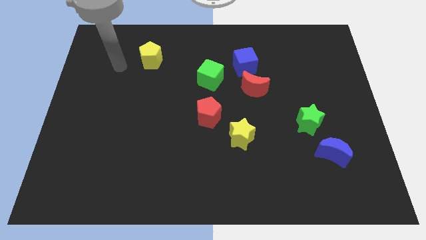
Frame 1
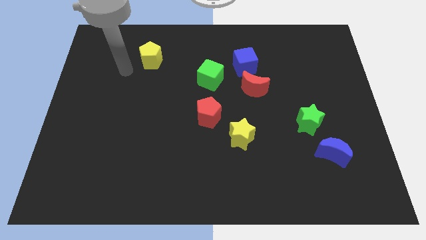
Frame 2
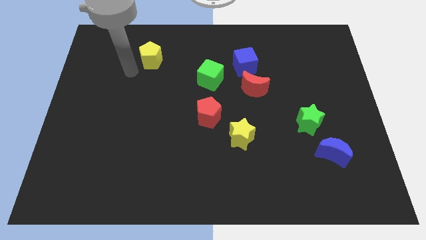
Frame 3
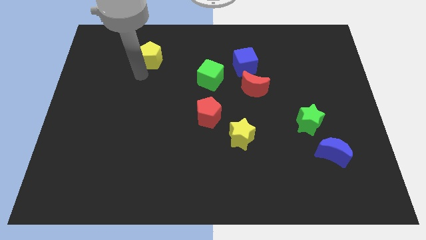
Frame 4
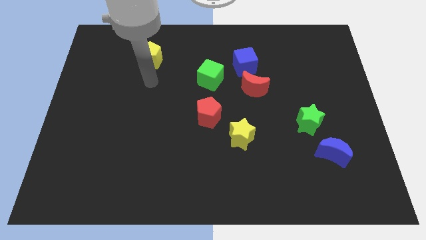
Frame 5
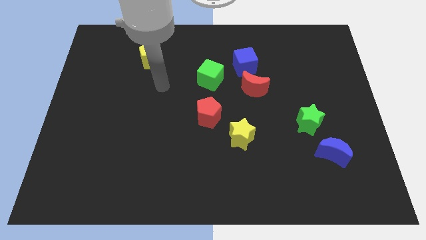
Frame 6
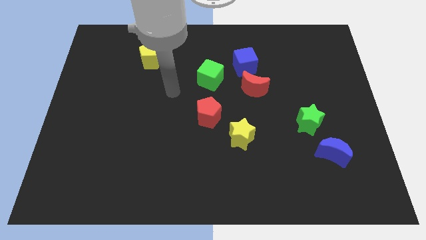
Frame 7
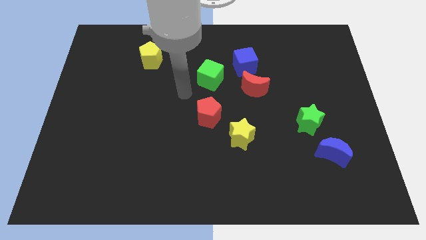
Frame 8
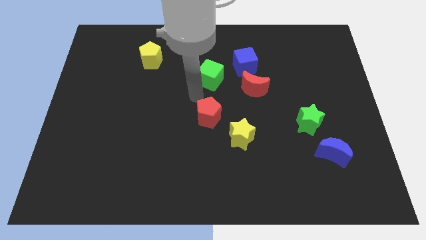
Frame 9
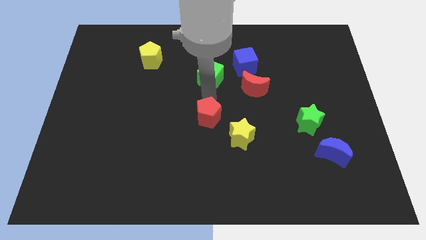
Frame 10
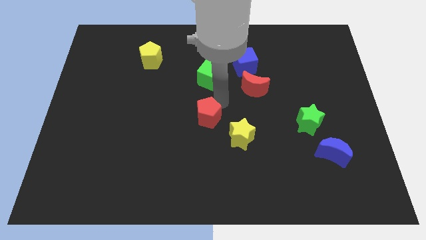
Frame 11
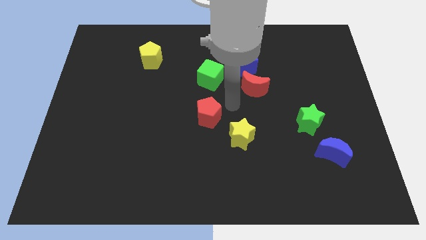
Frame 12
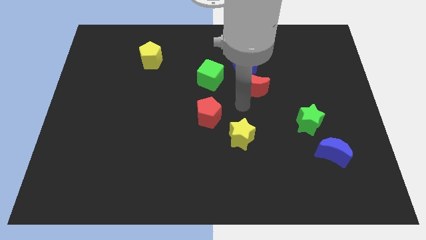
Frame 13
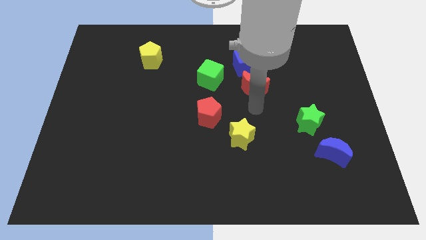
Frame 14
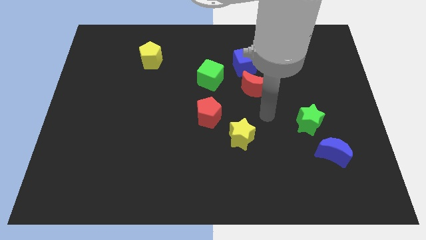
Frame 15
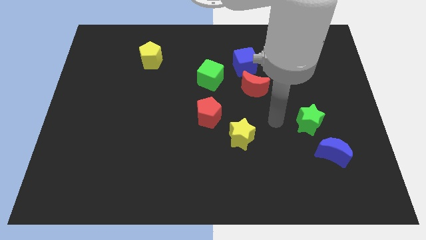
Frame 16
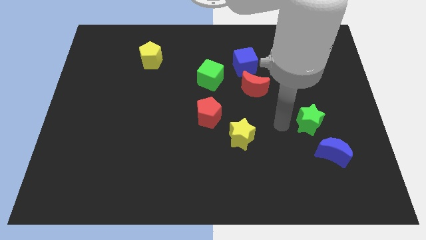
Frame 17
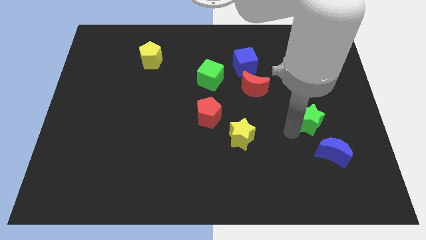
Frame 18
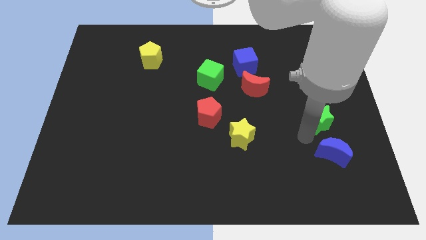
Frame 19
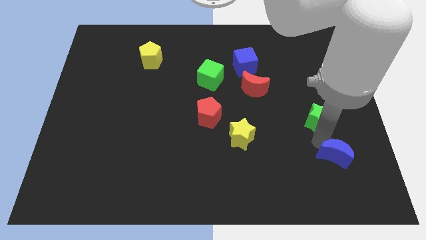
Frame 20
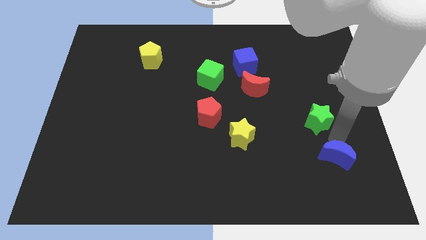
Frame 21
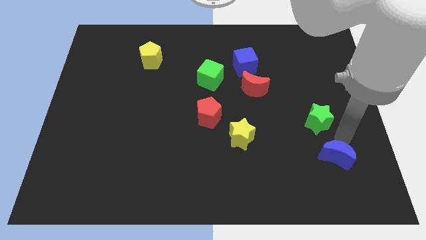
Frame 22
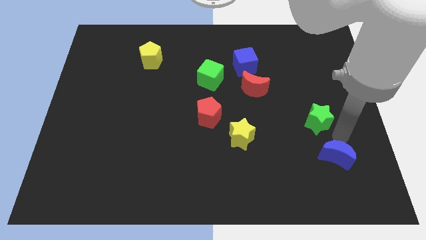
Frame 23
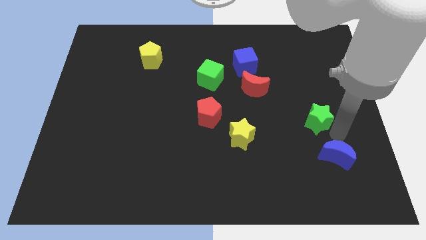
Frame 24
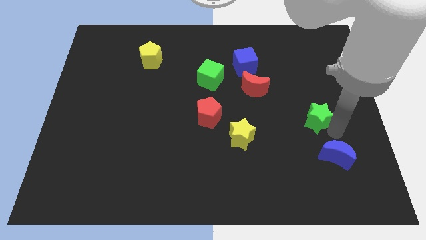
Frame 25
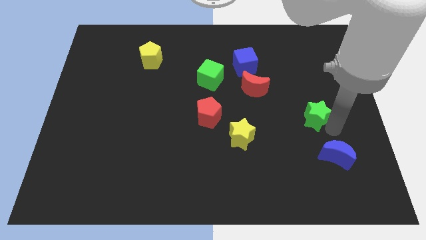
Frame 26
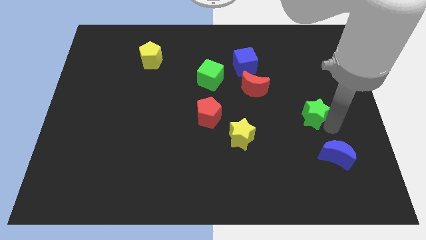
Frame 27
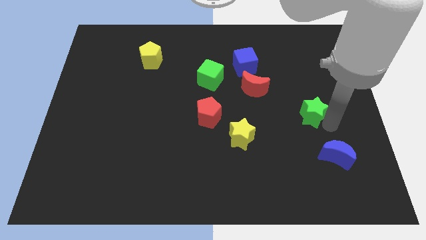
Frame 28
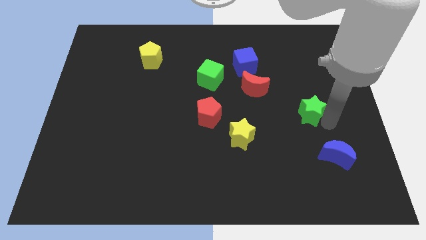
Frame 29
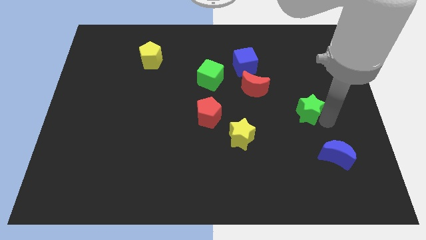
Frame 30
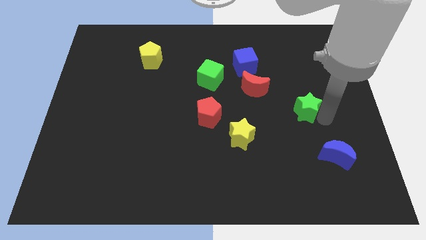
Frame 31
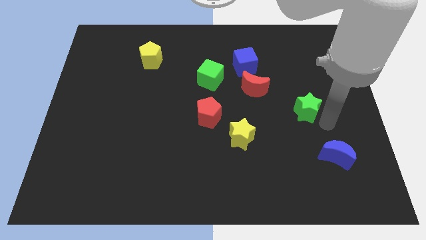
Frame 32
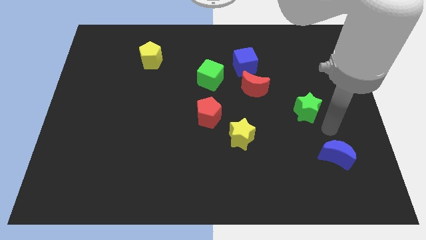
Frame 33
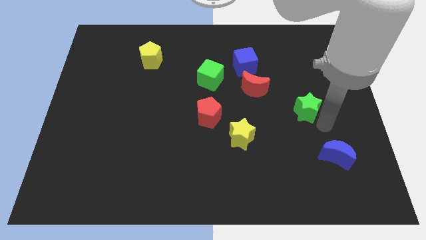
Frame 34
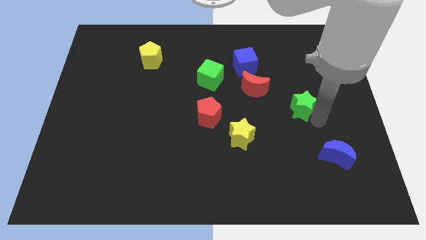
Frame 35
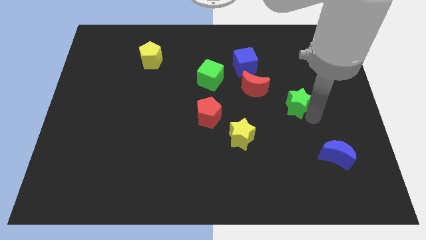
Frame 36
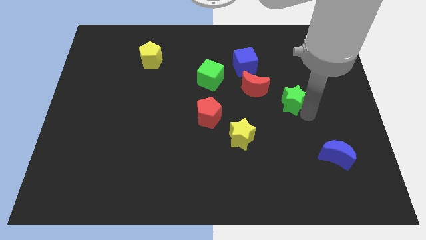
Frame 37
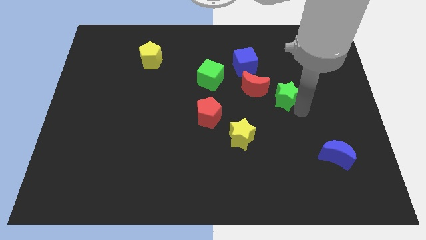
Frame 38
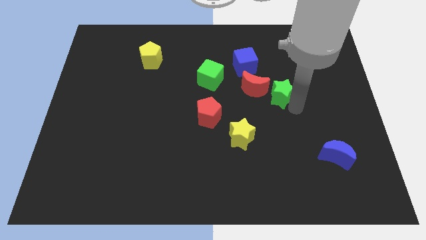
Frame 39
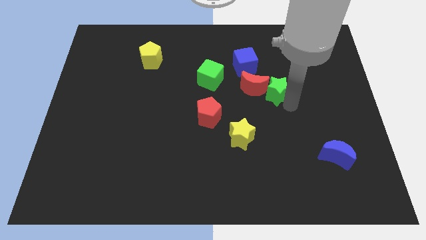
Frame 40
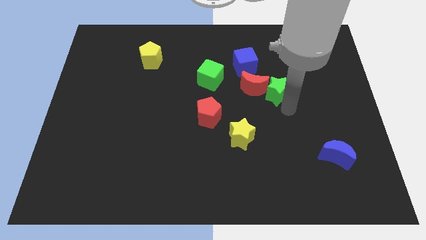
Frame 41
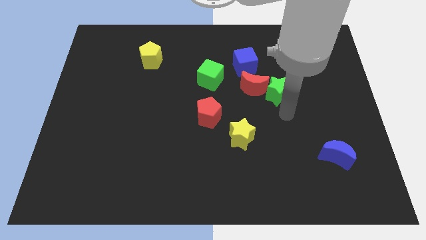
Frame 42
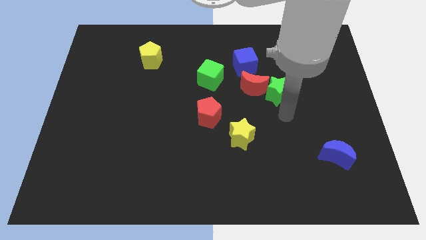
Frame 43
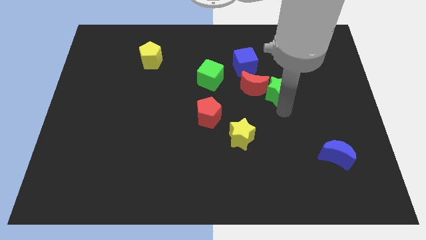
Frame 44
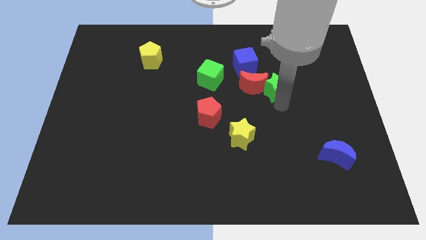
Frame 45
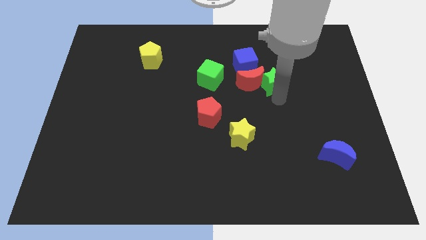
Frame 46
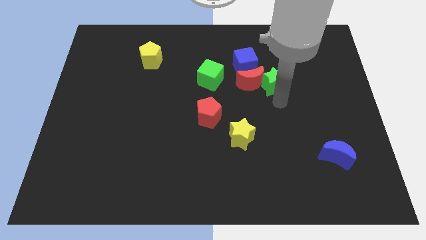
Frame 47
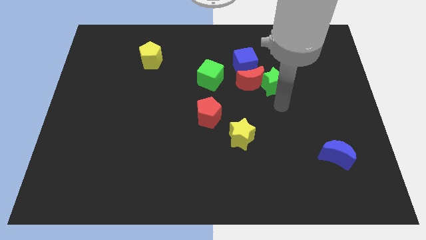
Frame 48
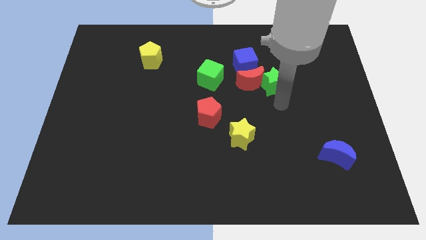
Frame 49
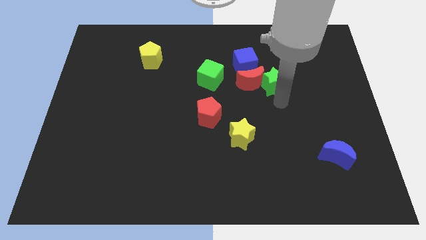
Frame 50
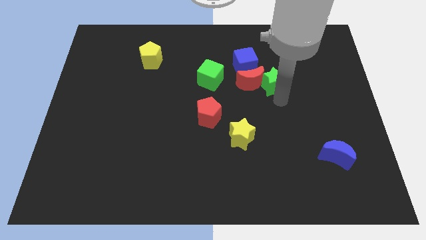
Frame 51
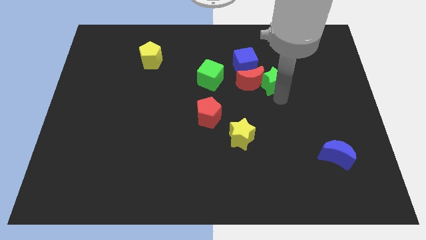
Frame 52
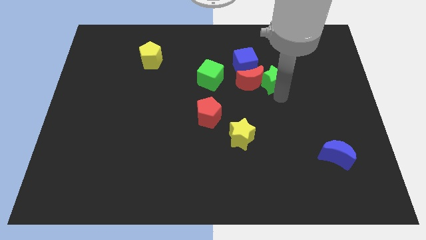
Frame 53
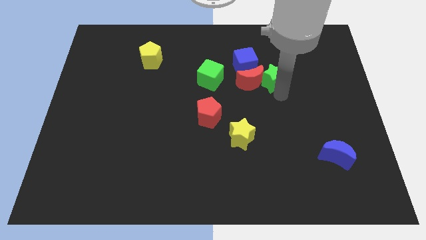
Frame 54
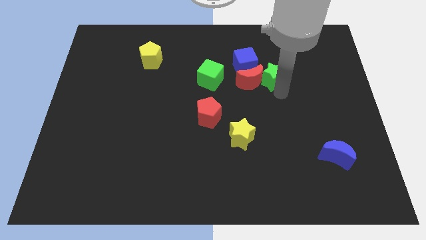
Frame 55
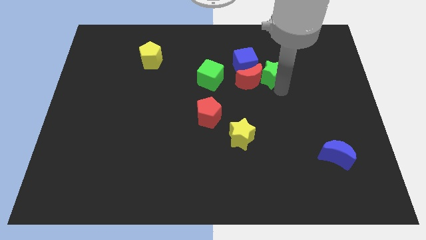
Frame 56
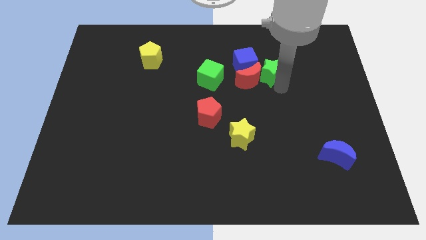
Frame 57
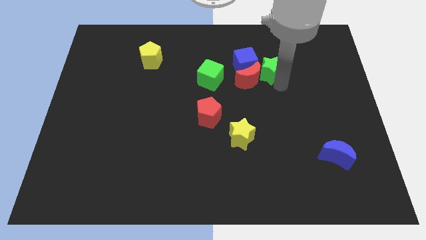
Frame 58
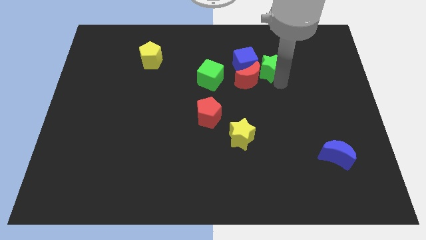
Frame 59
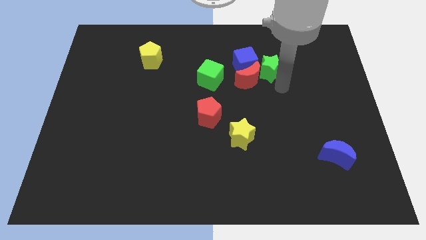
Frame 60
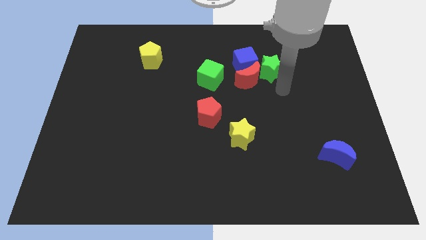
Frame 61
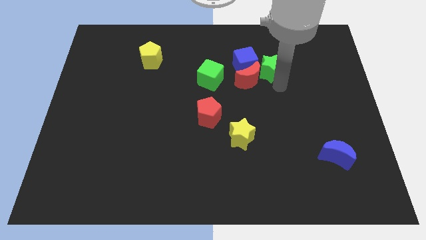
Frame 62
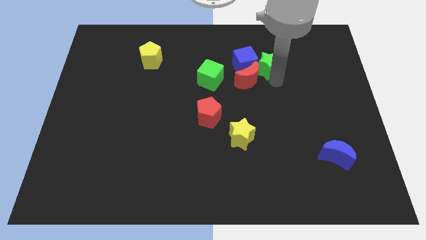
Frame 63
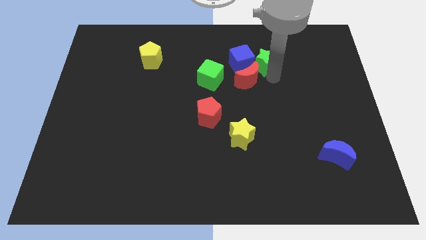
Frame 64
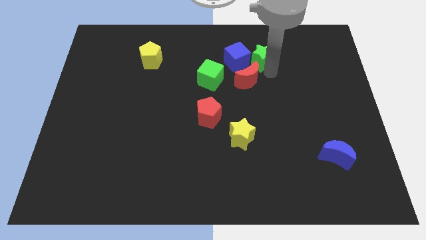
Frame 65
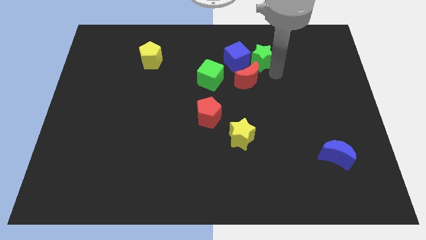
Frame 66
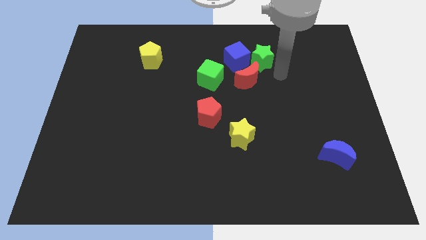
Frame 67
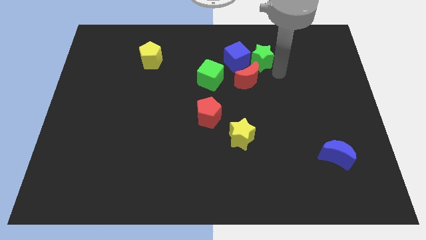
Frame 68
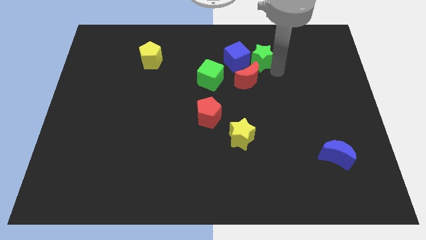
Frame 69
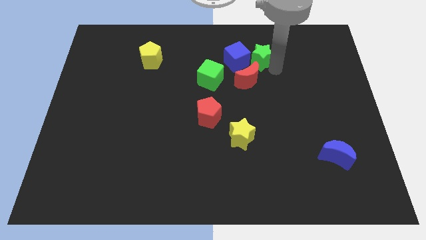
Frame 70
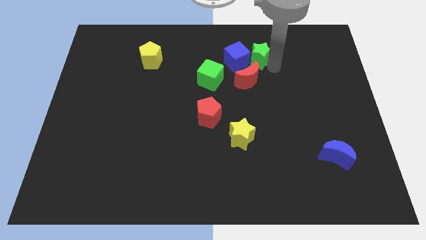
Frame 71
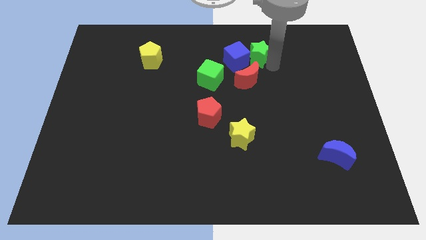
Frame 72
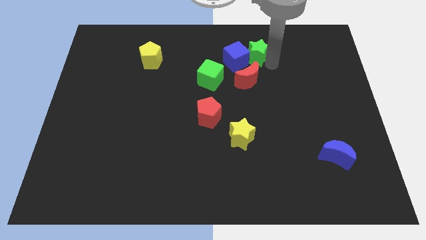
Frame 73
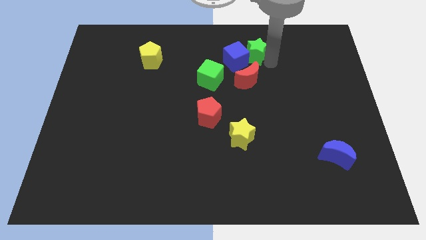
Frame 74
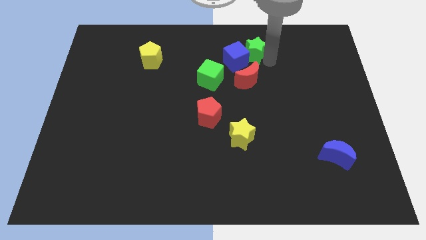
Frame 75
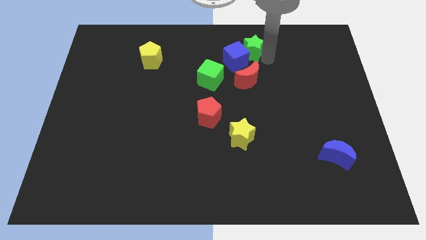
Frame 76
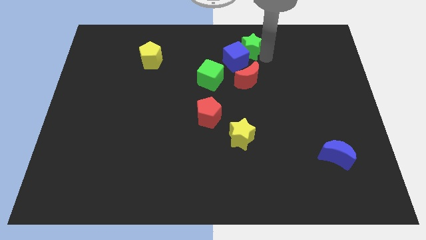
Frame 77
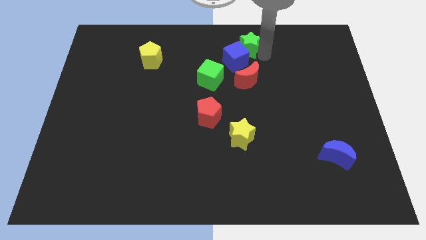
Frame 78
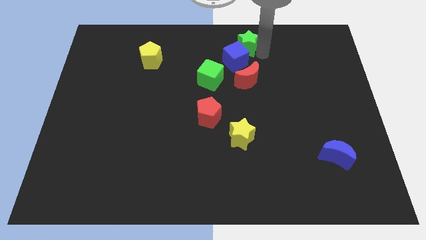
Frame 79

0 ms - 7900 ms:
put the green star to the towards your base

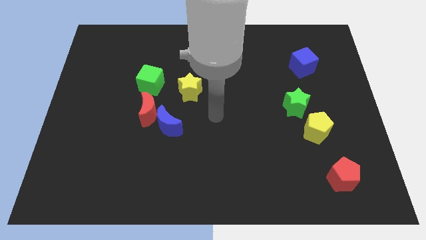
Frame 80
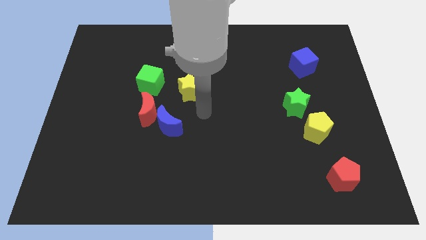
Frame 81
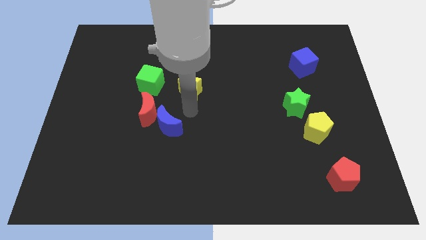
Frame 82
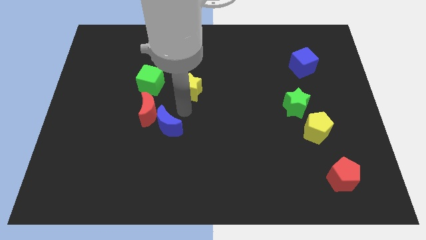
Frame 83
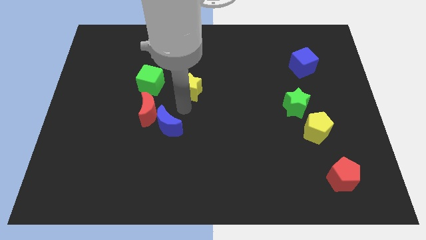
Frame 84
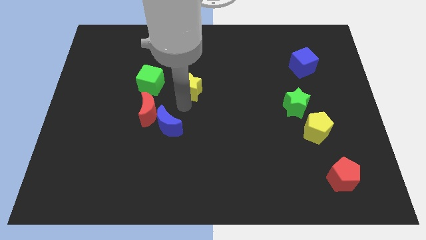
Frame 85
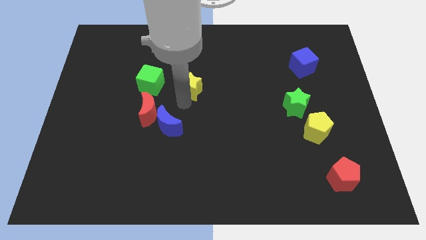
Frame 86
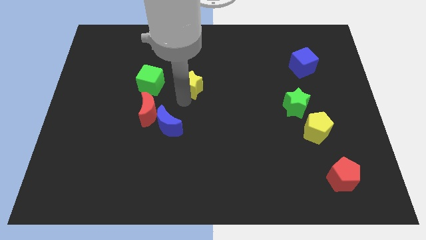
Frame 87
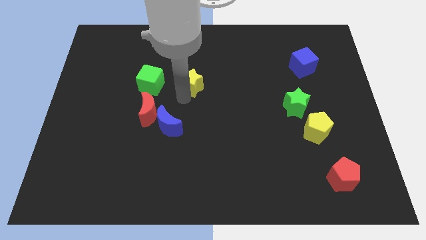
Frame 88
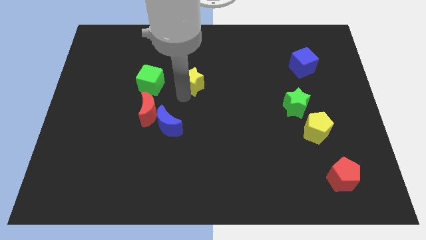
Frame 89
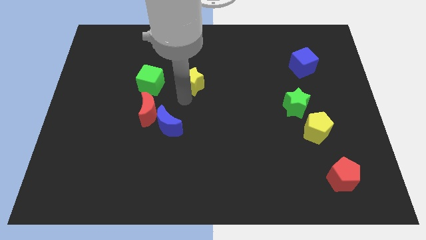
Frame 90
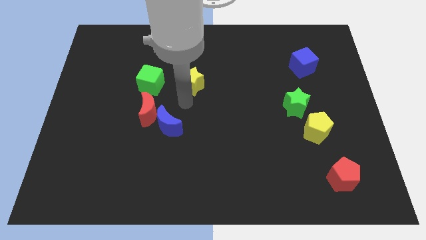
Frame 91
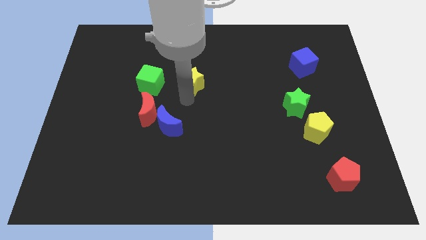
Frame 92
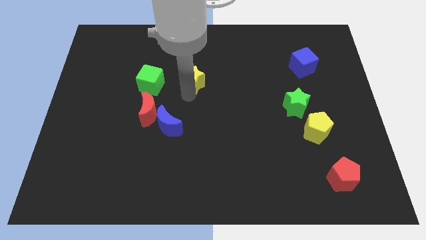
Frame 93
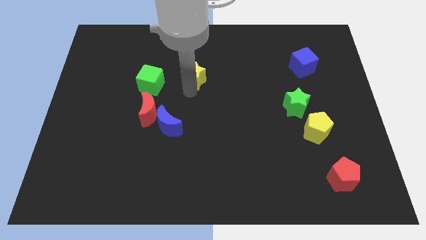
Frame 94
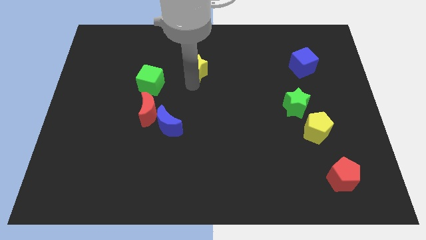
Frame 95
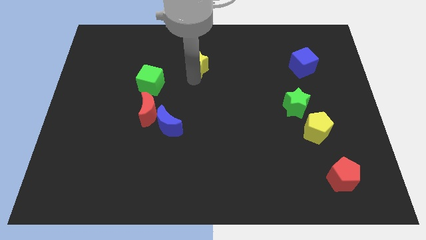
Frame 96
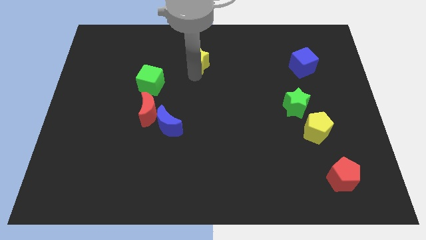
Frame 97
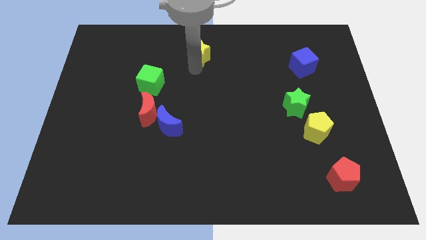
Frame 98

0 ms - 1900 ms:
move the yellow star to the towards your base
